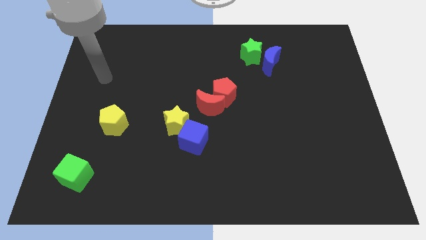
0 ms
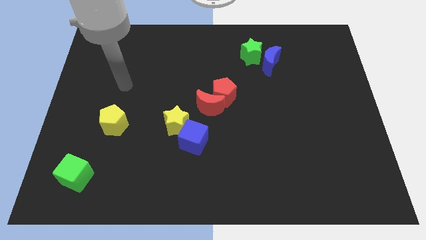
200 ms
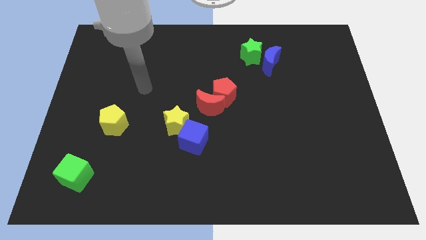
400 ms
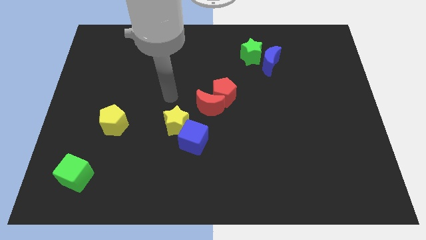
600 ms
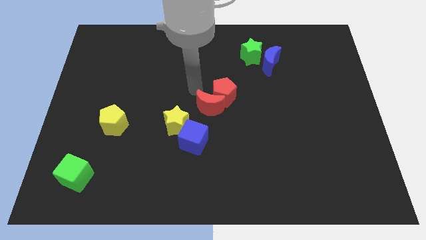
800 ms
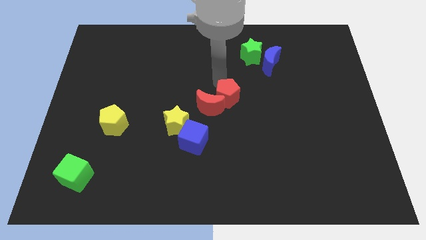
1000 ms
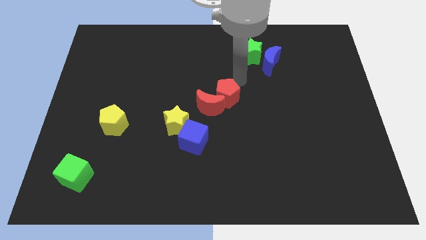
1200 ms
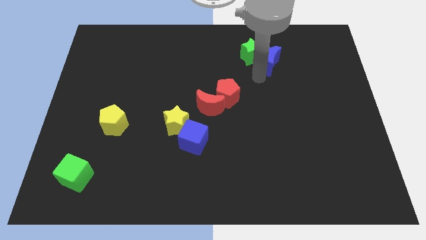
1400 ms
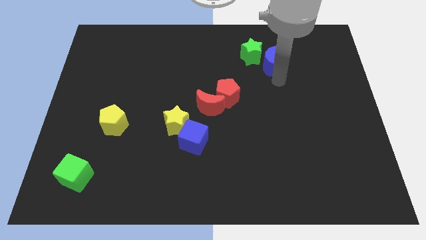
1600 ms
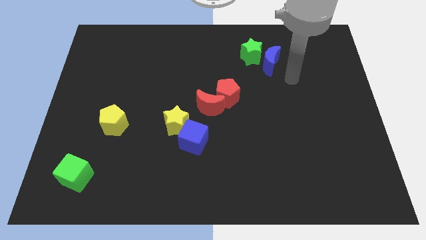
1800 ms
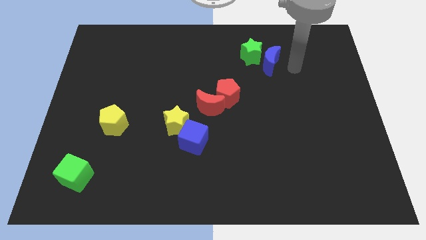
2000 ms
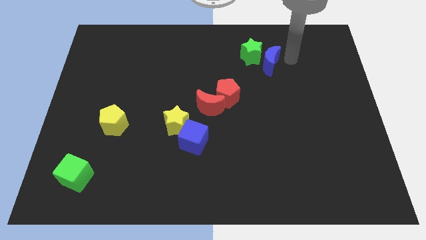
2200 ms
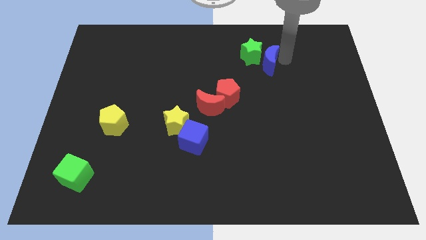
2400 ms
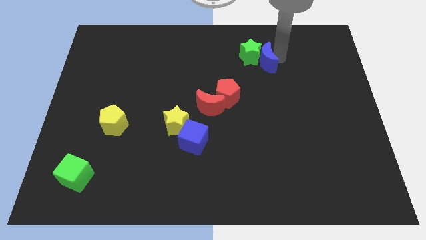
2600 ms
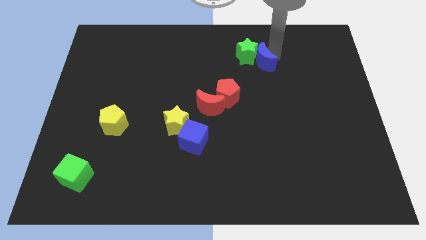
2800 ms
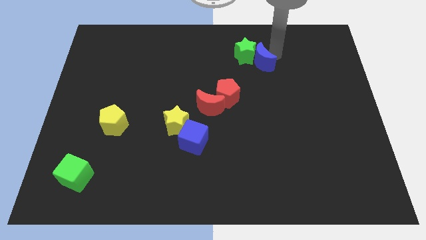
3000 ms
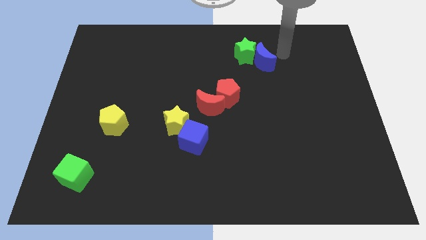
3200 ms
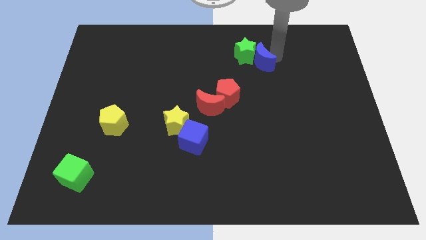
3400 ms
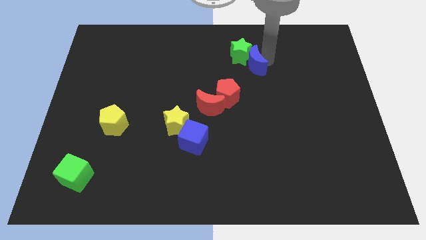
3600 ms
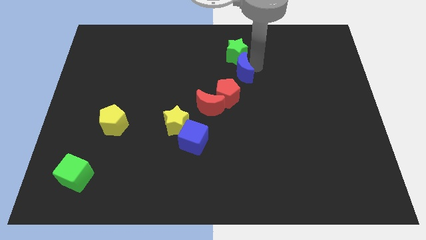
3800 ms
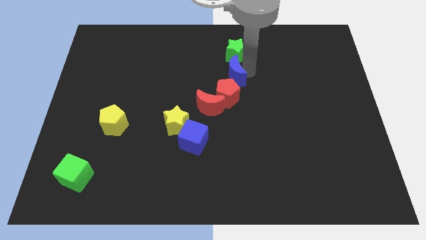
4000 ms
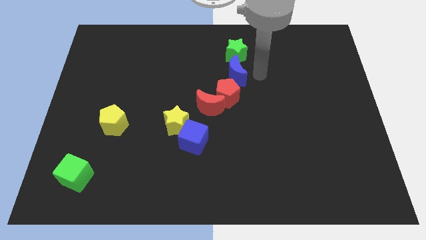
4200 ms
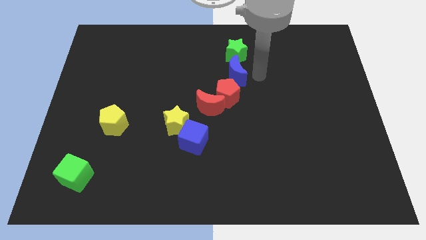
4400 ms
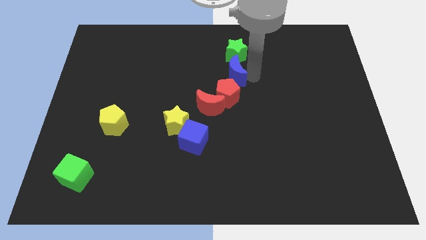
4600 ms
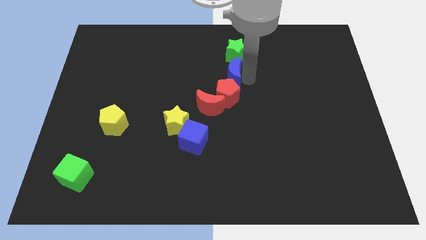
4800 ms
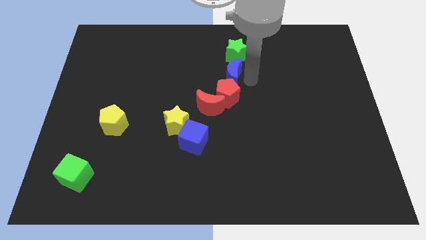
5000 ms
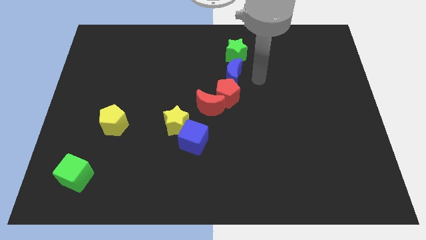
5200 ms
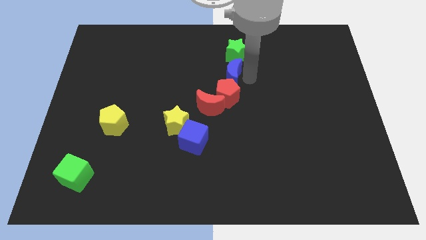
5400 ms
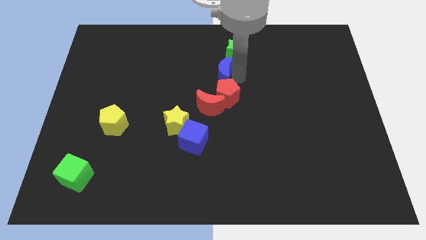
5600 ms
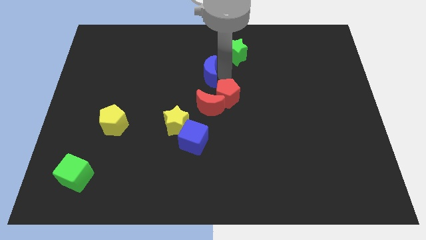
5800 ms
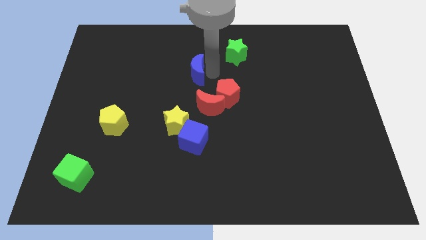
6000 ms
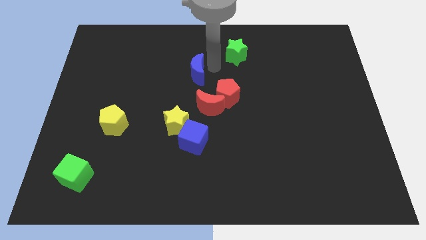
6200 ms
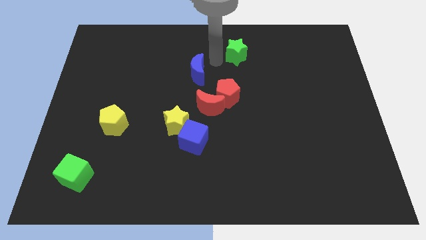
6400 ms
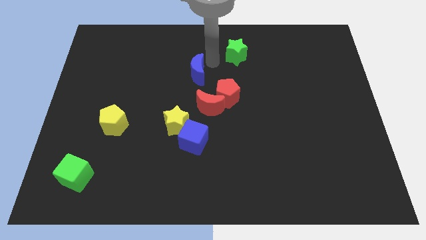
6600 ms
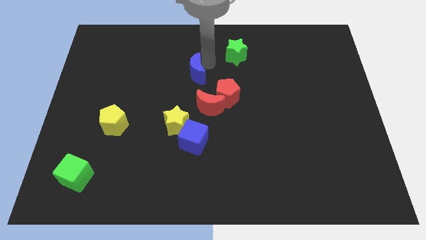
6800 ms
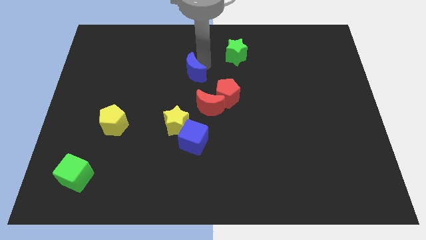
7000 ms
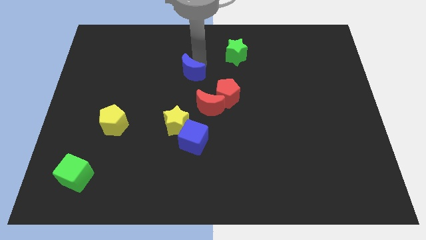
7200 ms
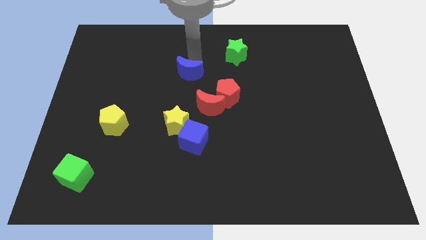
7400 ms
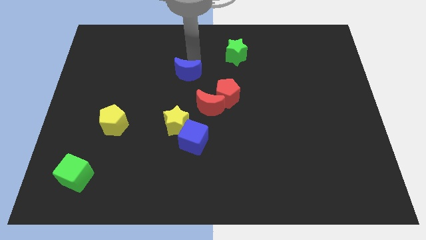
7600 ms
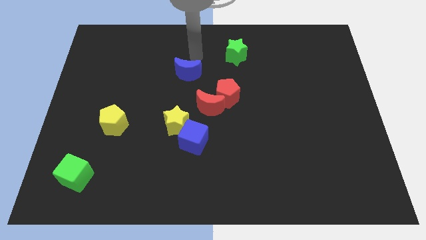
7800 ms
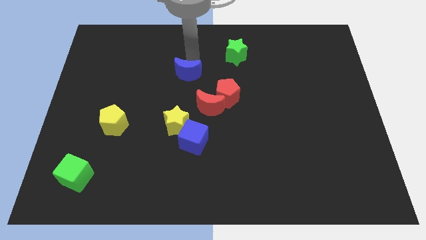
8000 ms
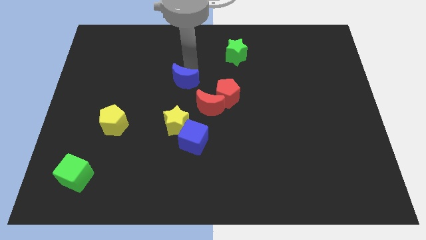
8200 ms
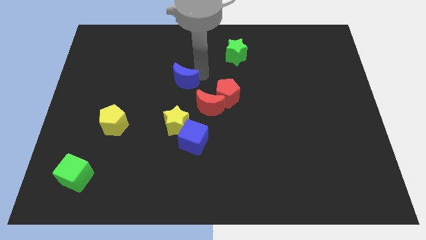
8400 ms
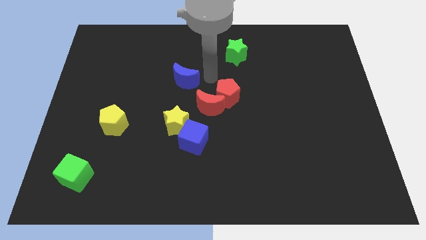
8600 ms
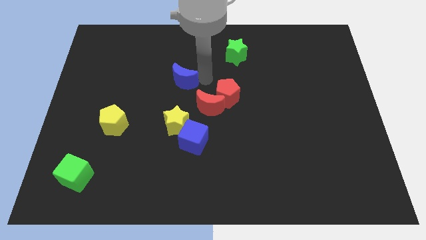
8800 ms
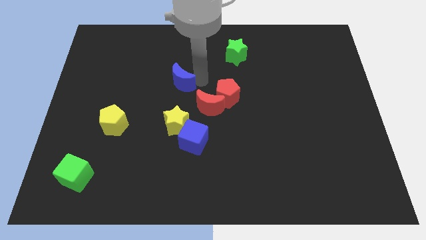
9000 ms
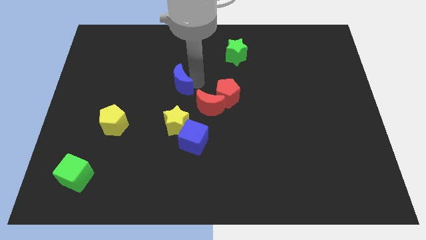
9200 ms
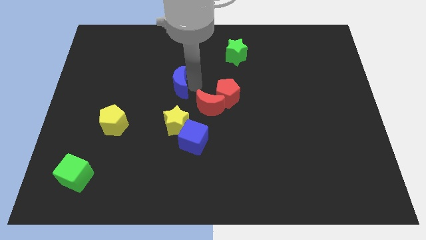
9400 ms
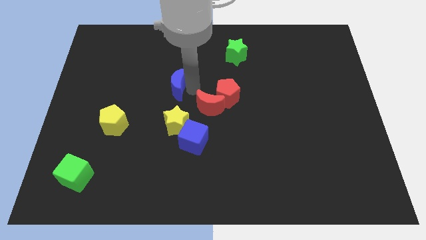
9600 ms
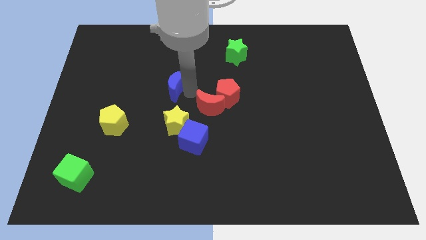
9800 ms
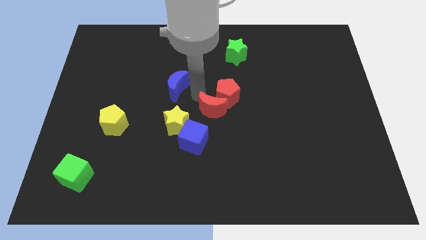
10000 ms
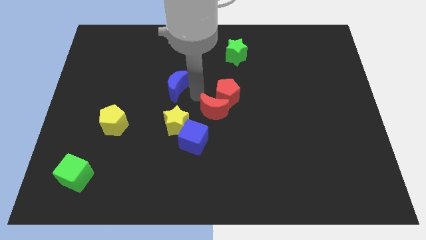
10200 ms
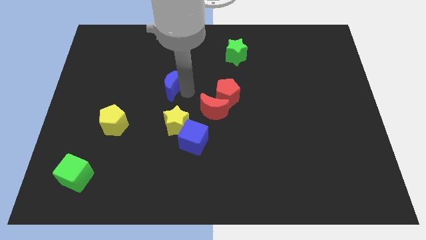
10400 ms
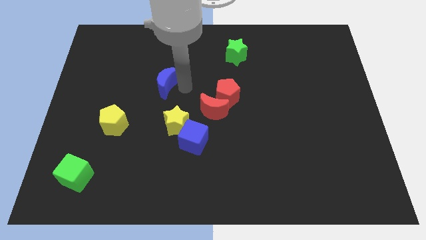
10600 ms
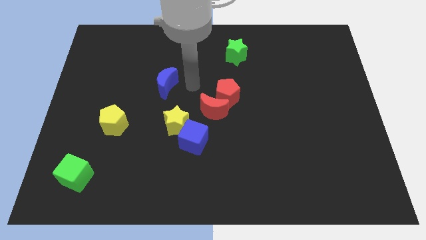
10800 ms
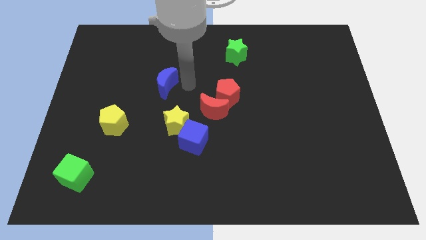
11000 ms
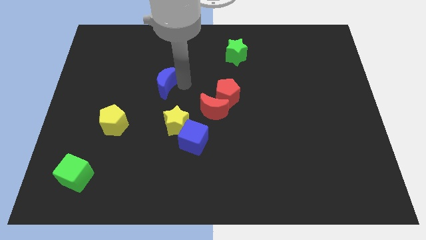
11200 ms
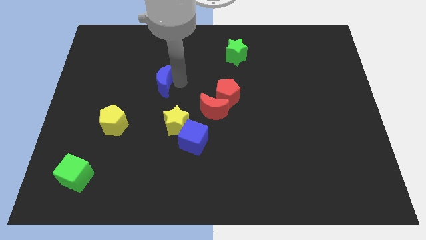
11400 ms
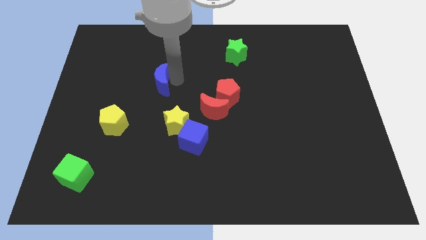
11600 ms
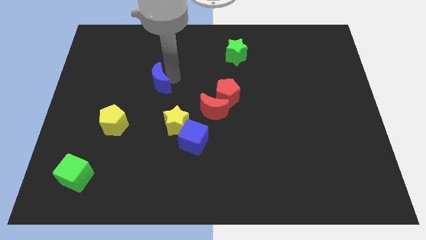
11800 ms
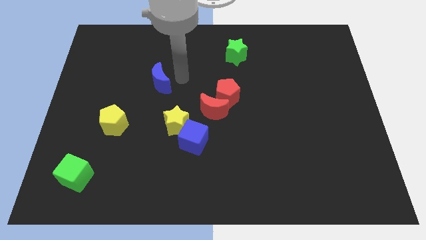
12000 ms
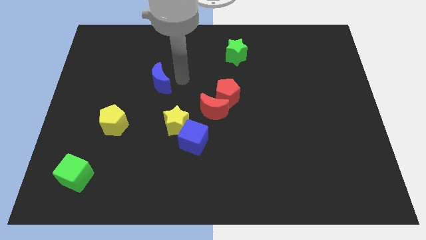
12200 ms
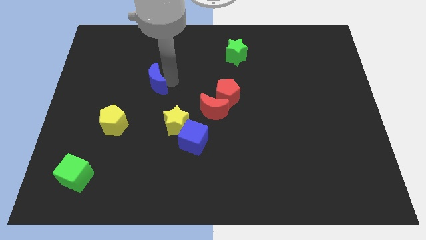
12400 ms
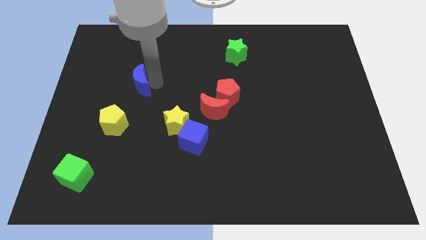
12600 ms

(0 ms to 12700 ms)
push the blue moon to the top side of the yellow pentagon

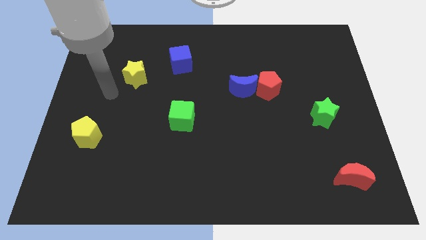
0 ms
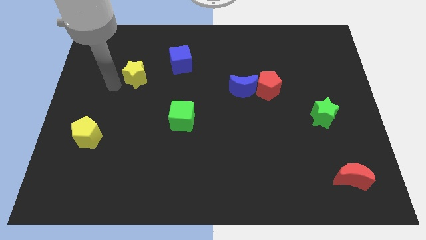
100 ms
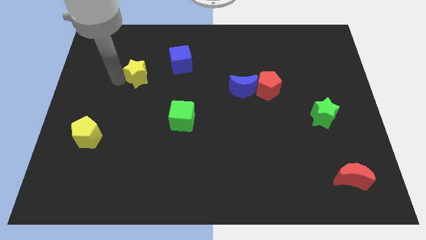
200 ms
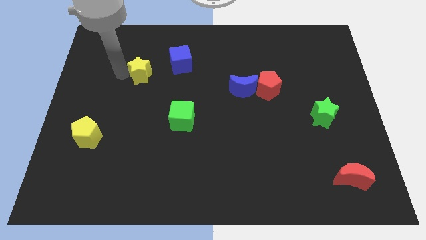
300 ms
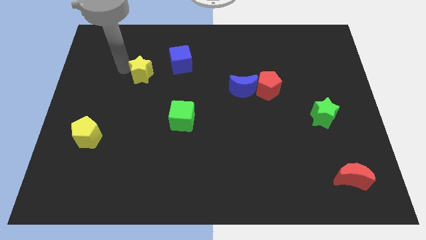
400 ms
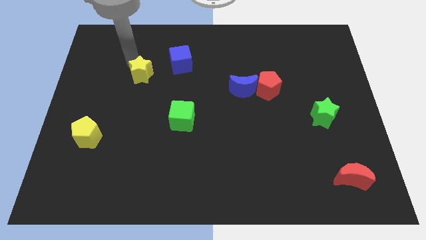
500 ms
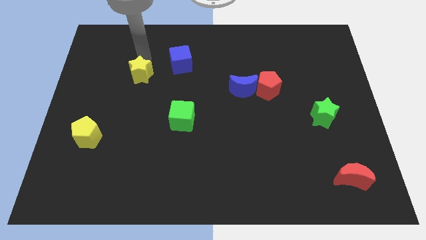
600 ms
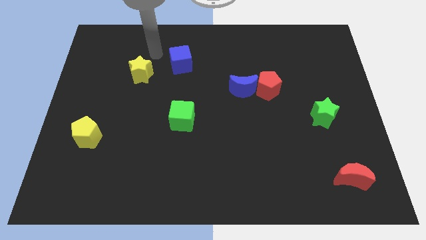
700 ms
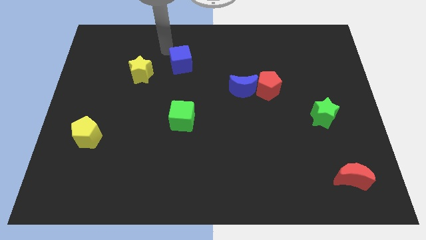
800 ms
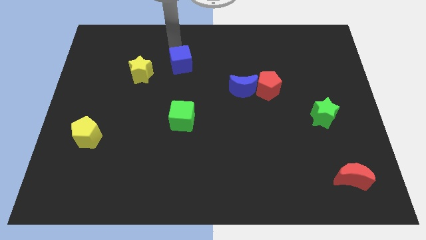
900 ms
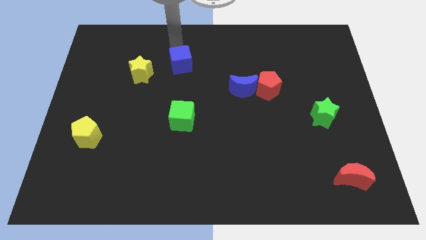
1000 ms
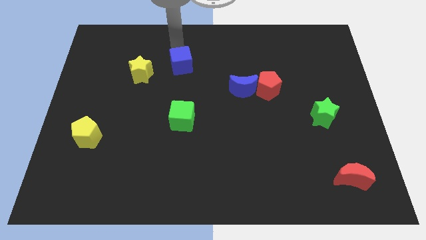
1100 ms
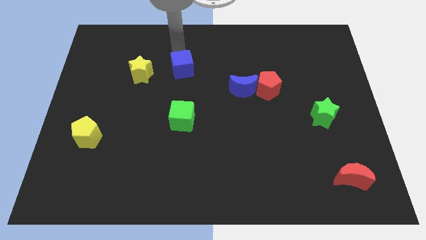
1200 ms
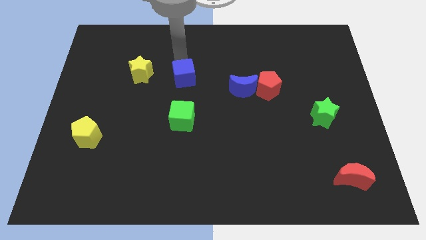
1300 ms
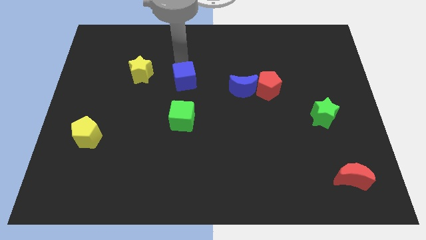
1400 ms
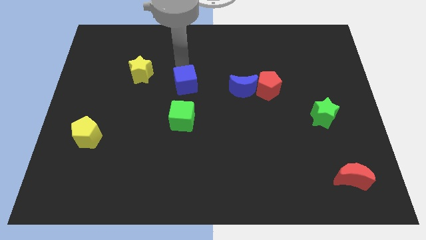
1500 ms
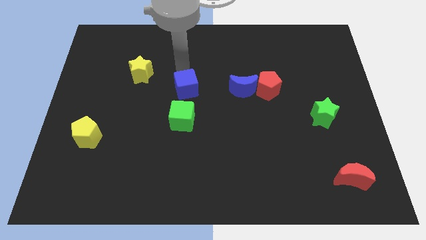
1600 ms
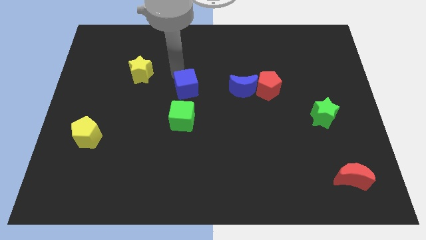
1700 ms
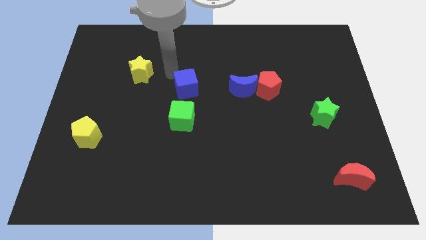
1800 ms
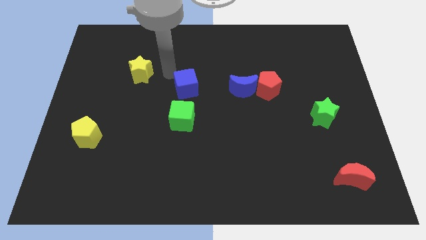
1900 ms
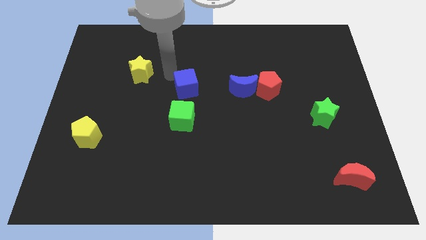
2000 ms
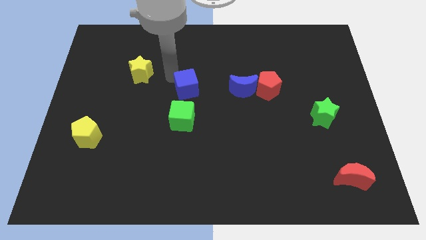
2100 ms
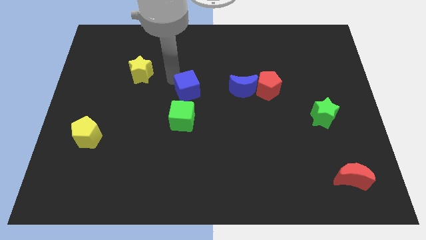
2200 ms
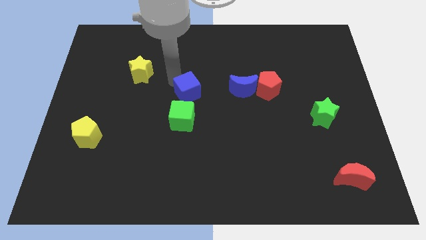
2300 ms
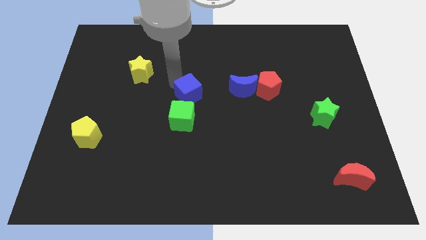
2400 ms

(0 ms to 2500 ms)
push the blue cube to the top right of the green cube
